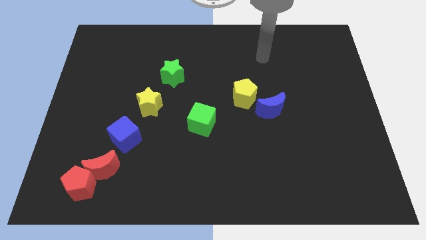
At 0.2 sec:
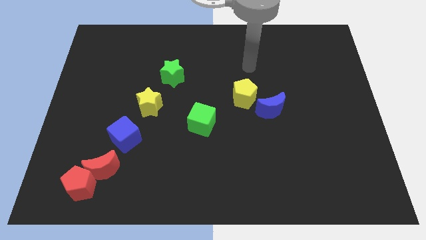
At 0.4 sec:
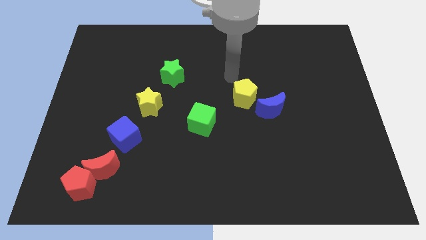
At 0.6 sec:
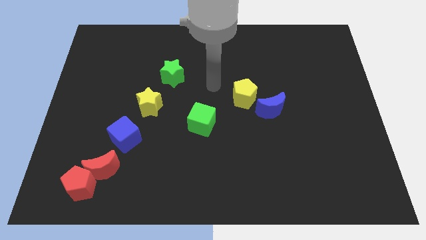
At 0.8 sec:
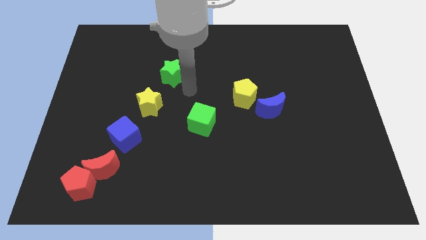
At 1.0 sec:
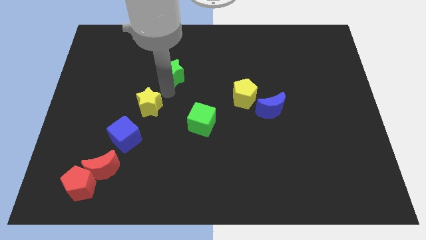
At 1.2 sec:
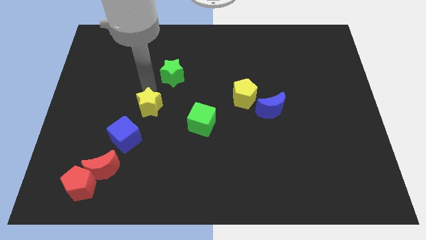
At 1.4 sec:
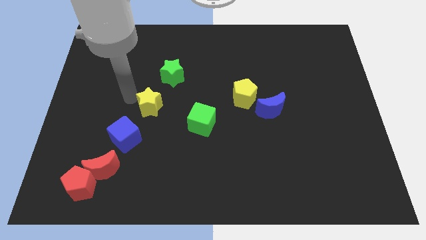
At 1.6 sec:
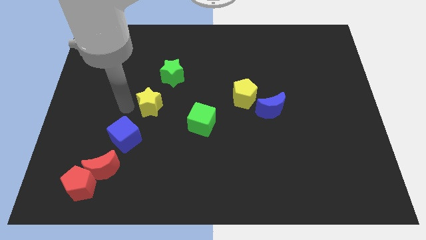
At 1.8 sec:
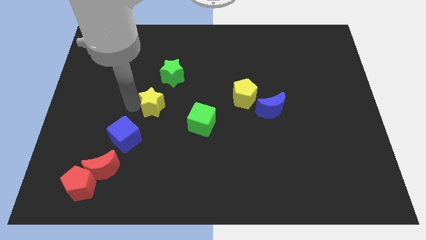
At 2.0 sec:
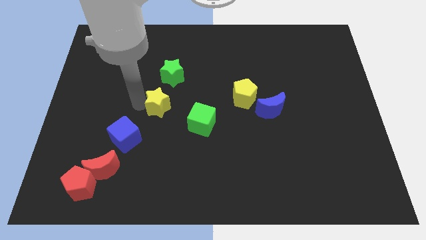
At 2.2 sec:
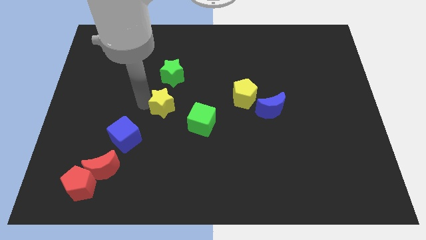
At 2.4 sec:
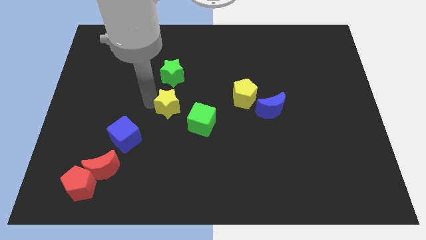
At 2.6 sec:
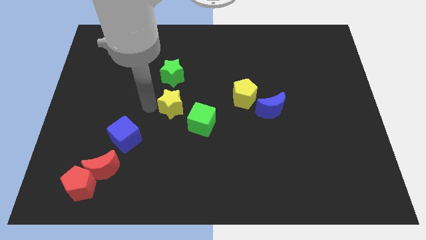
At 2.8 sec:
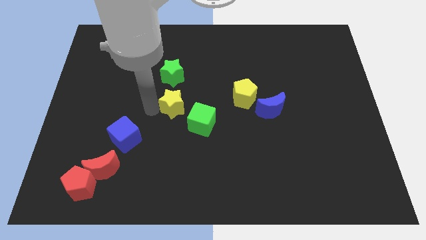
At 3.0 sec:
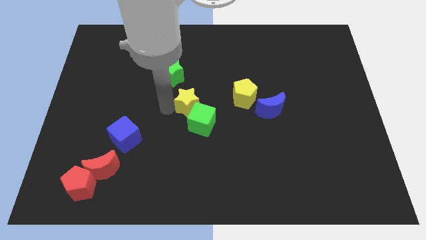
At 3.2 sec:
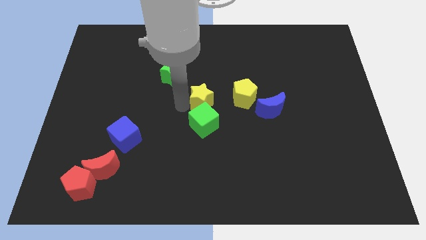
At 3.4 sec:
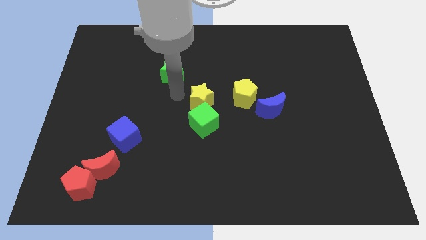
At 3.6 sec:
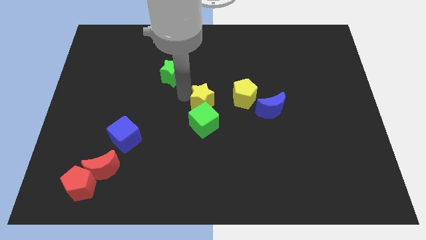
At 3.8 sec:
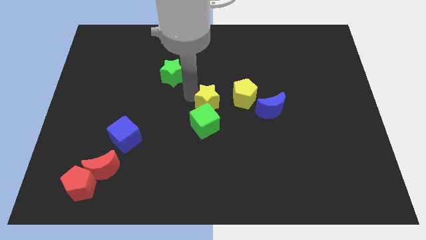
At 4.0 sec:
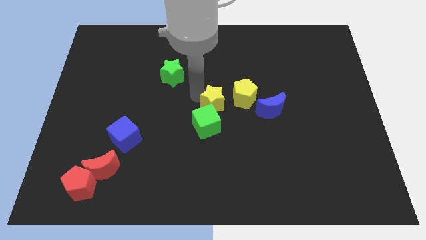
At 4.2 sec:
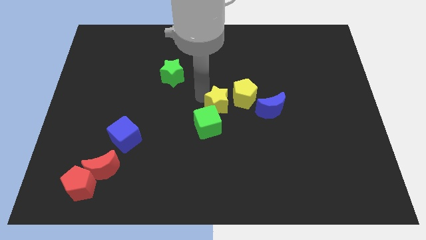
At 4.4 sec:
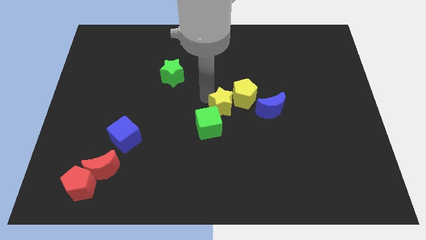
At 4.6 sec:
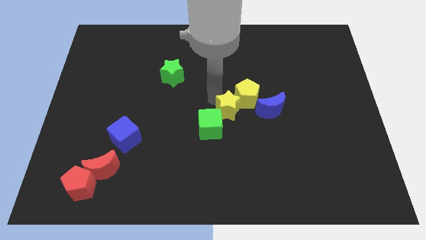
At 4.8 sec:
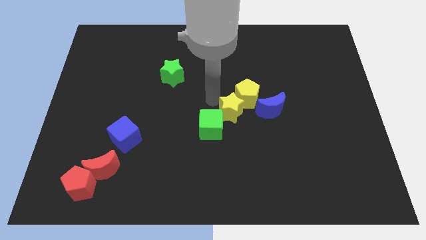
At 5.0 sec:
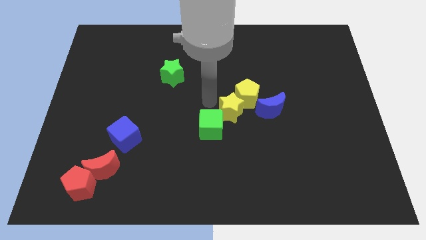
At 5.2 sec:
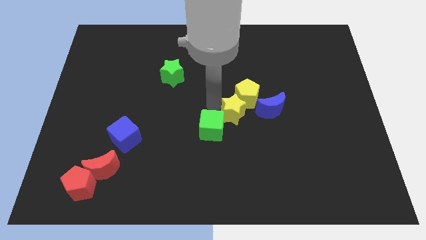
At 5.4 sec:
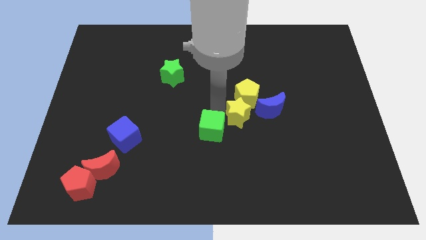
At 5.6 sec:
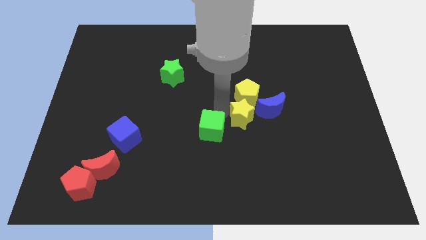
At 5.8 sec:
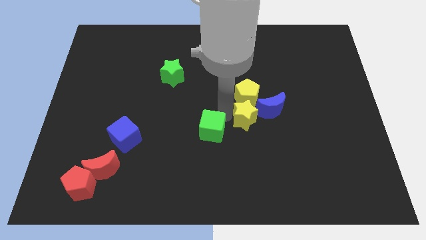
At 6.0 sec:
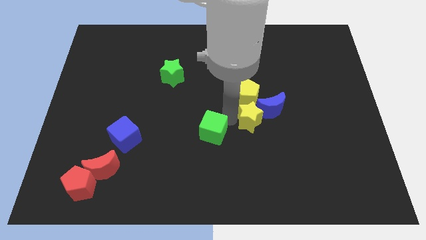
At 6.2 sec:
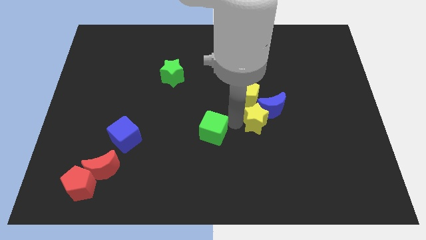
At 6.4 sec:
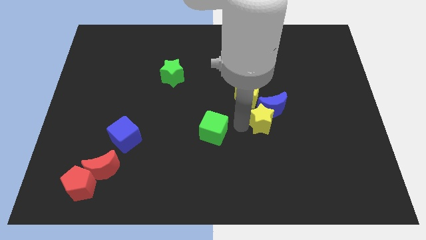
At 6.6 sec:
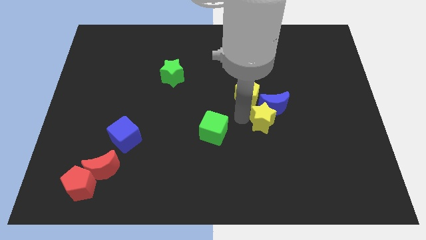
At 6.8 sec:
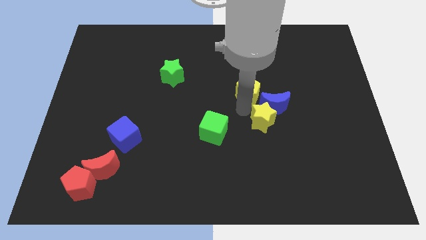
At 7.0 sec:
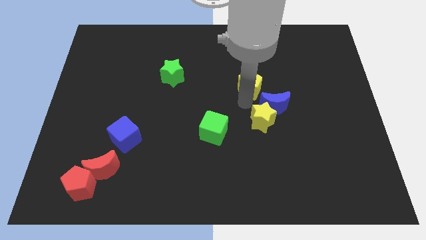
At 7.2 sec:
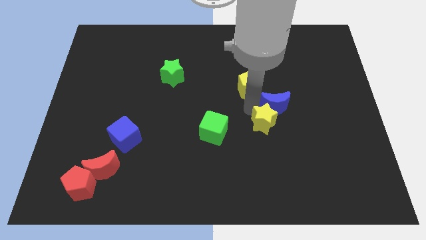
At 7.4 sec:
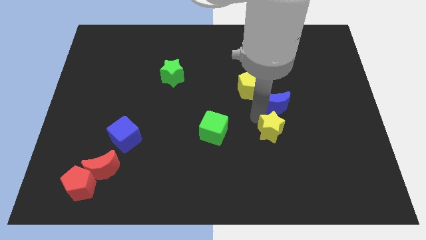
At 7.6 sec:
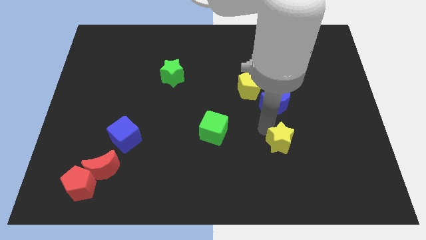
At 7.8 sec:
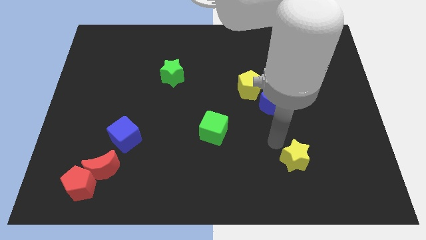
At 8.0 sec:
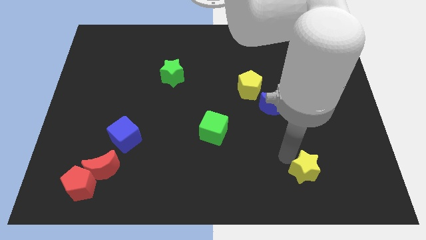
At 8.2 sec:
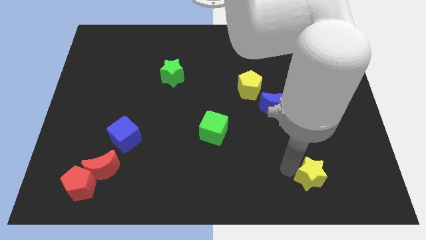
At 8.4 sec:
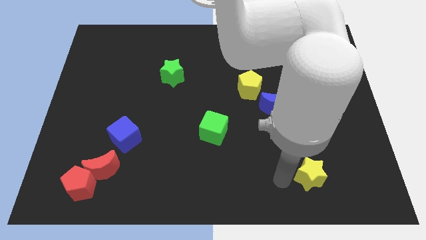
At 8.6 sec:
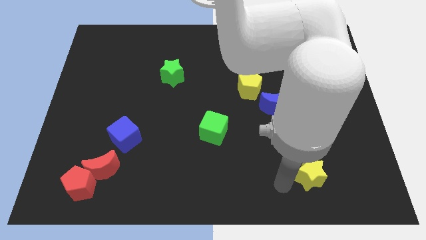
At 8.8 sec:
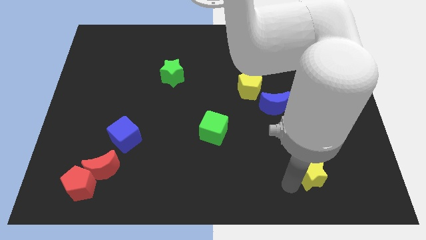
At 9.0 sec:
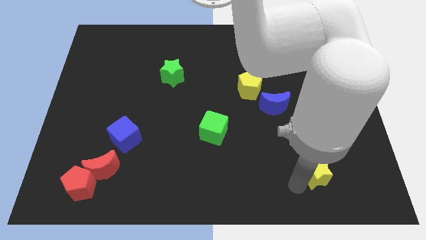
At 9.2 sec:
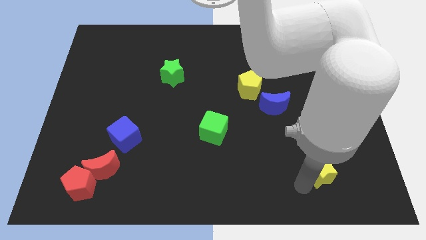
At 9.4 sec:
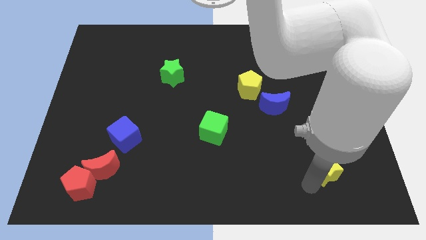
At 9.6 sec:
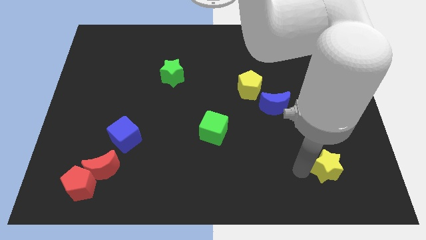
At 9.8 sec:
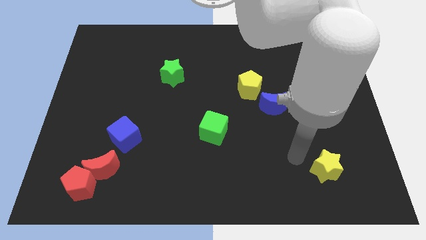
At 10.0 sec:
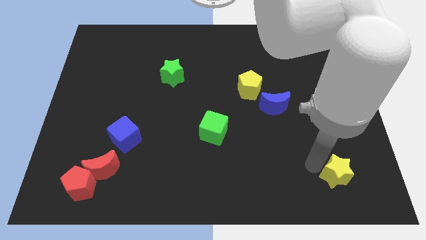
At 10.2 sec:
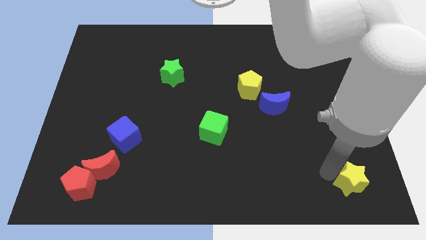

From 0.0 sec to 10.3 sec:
move the yellow star to the bottom right of the board

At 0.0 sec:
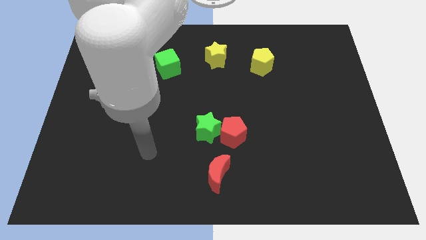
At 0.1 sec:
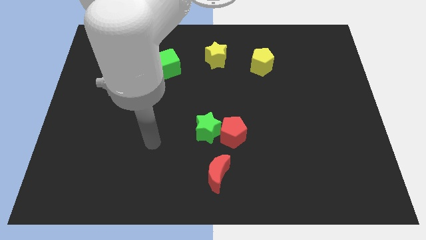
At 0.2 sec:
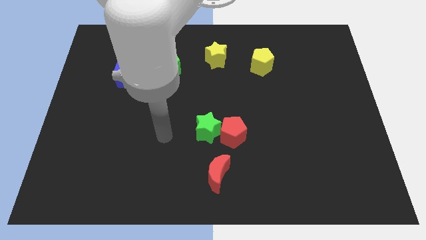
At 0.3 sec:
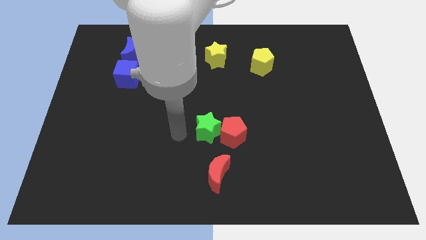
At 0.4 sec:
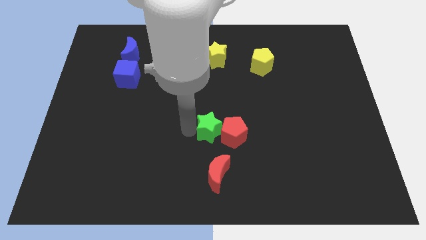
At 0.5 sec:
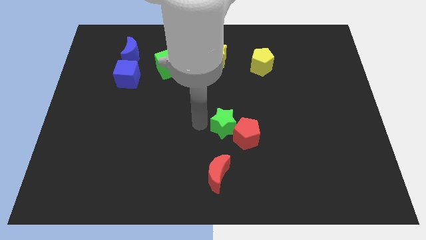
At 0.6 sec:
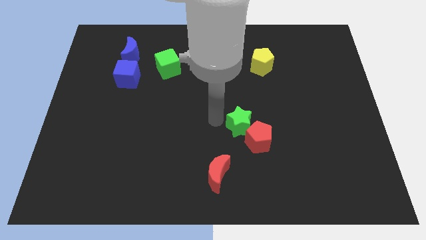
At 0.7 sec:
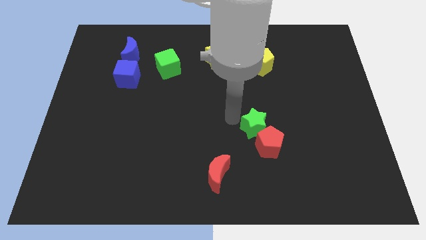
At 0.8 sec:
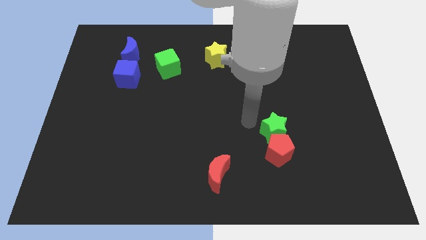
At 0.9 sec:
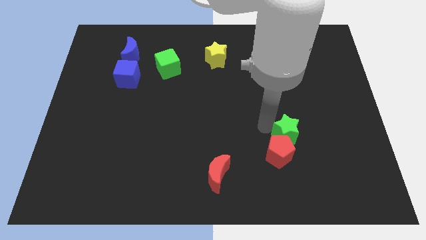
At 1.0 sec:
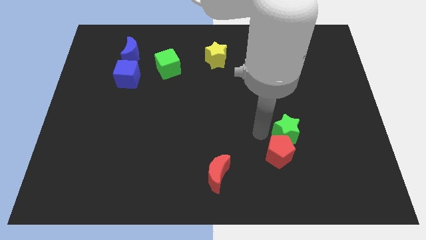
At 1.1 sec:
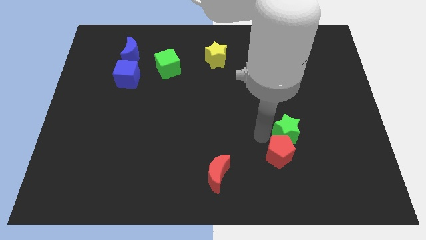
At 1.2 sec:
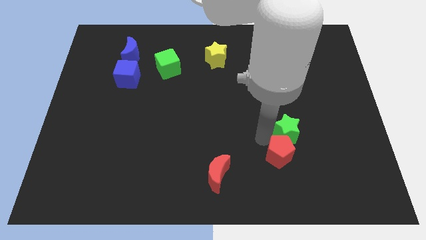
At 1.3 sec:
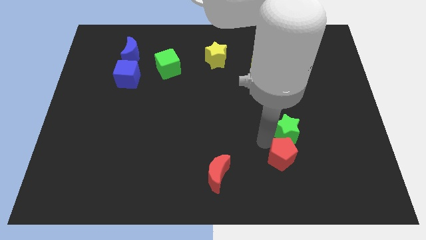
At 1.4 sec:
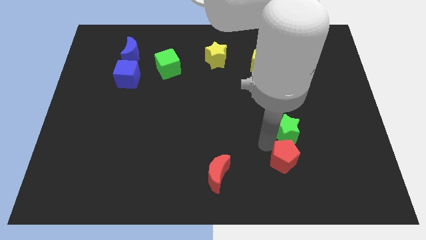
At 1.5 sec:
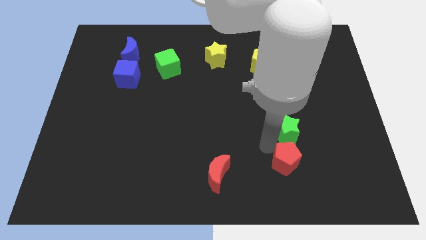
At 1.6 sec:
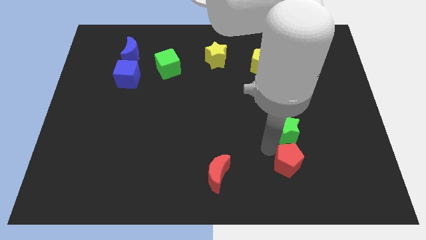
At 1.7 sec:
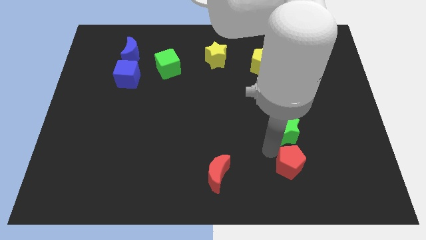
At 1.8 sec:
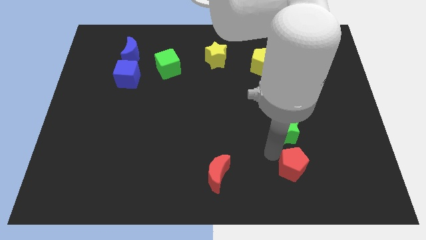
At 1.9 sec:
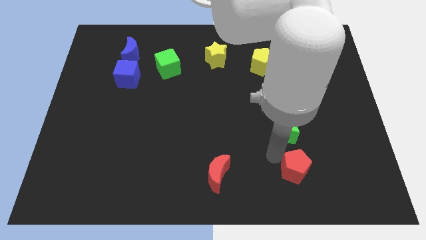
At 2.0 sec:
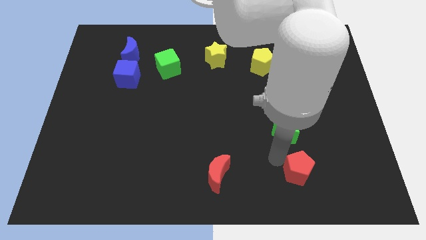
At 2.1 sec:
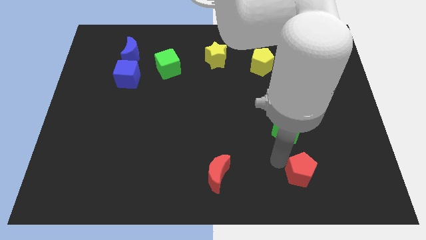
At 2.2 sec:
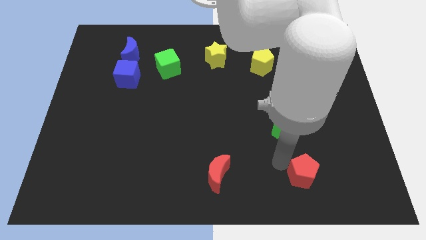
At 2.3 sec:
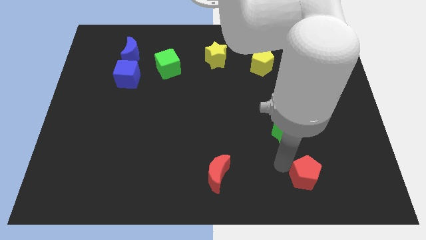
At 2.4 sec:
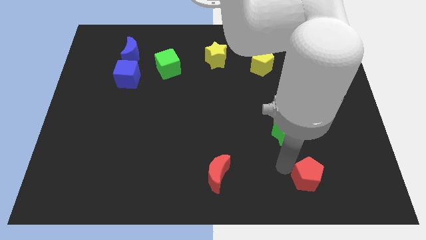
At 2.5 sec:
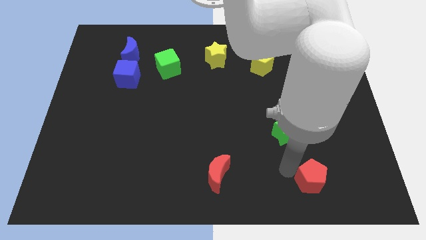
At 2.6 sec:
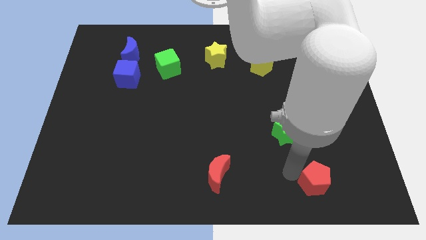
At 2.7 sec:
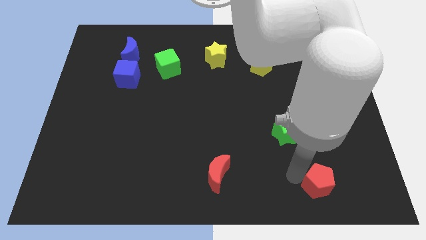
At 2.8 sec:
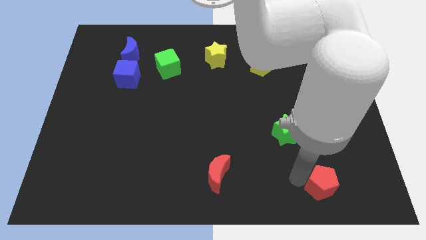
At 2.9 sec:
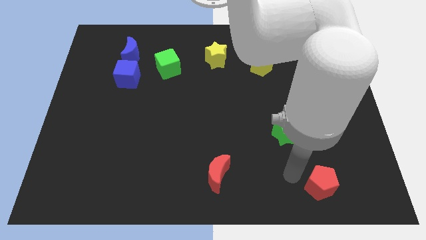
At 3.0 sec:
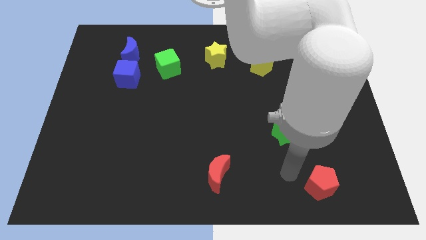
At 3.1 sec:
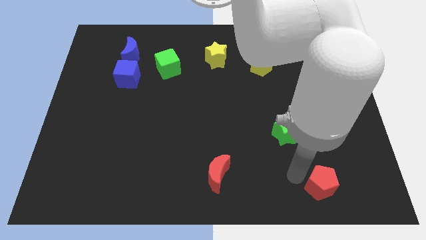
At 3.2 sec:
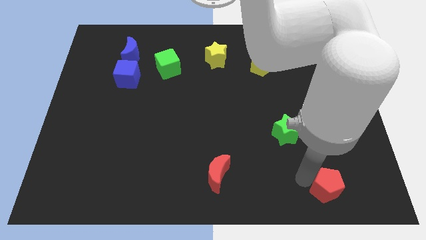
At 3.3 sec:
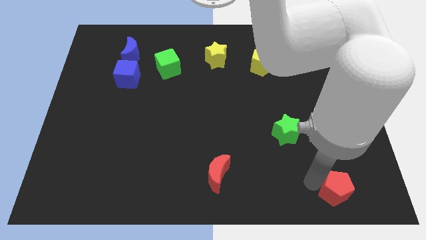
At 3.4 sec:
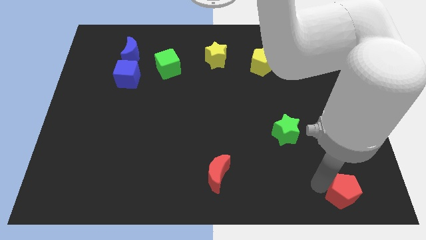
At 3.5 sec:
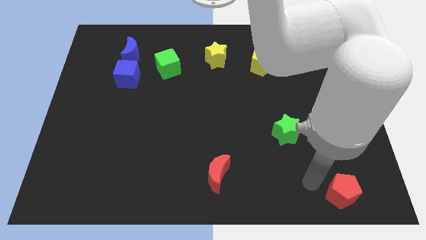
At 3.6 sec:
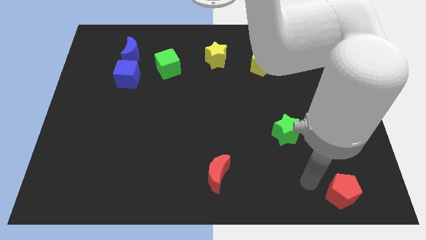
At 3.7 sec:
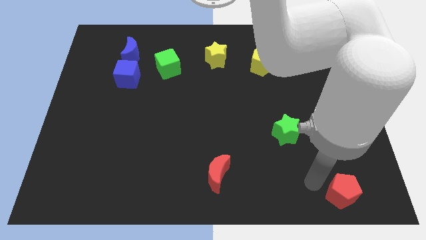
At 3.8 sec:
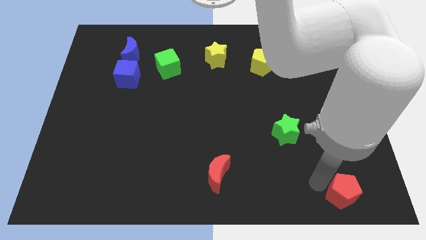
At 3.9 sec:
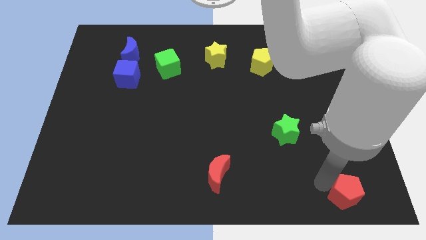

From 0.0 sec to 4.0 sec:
slide the red pentagon to the bottom right corner
